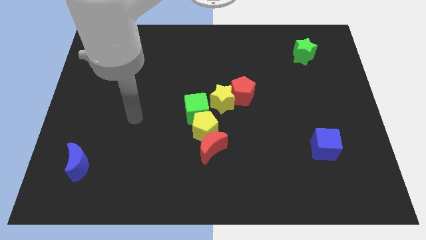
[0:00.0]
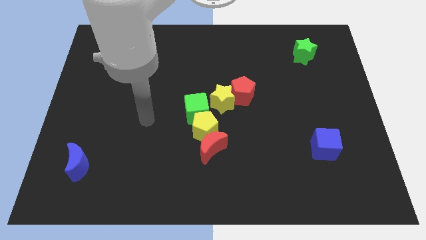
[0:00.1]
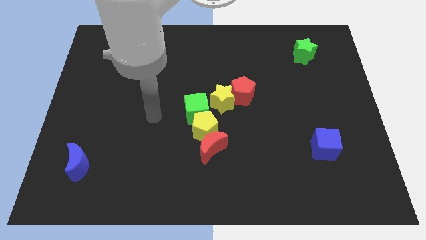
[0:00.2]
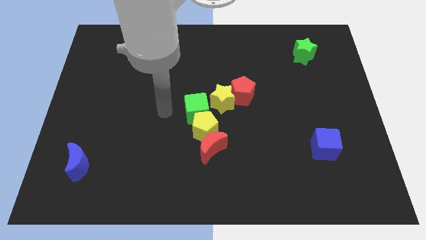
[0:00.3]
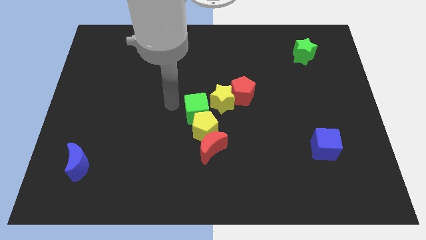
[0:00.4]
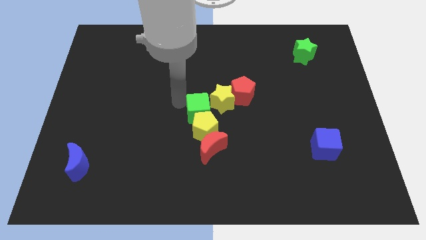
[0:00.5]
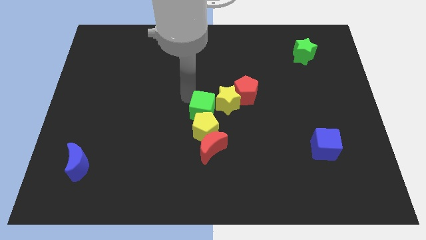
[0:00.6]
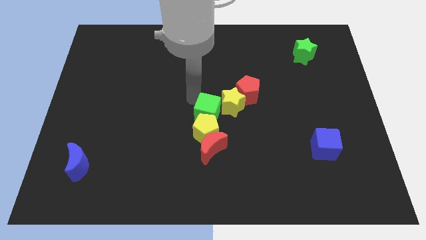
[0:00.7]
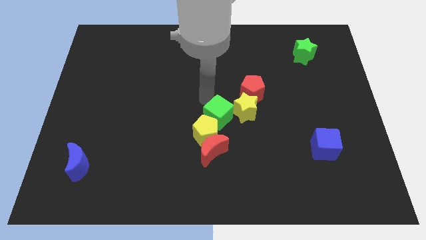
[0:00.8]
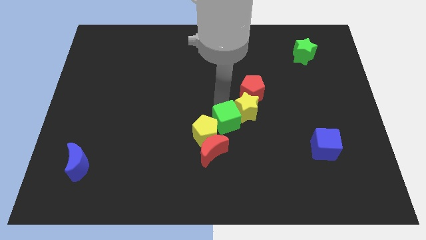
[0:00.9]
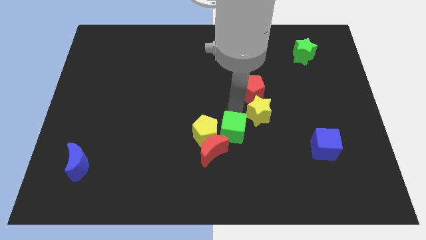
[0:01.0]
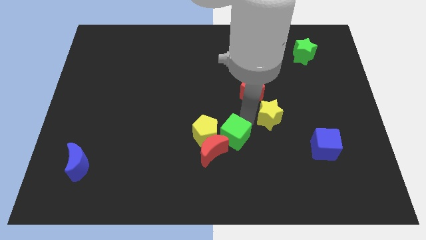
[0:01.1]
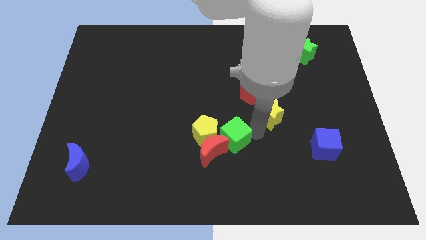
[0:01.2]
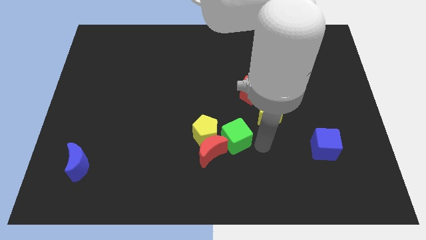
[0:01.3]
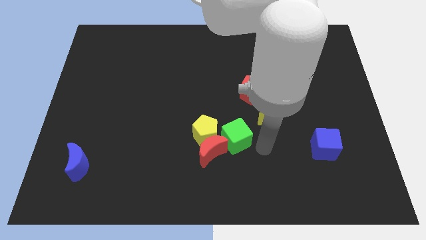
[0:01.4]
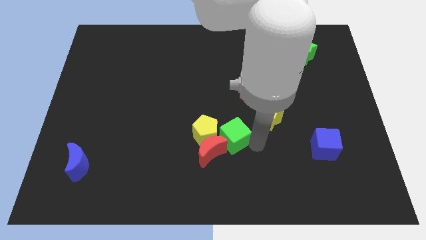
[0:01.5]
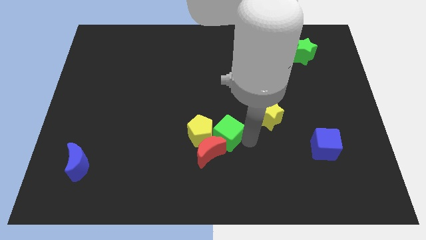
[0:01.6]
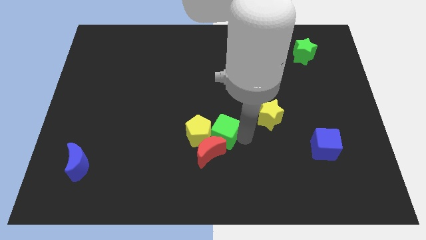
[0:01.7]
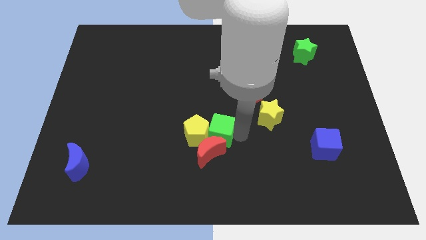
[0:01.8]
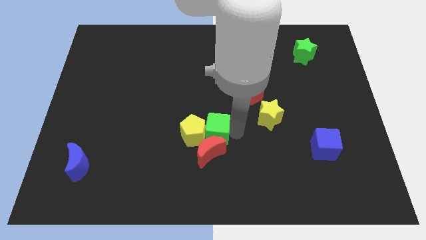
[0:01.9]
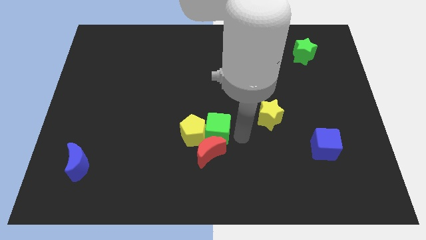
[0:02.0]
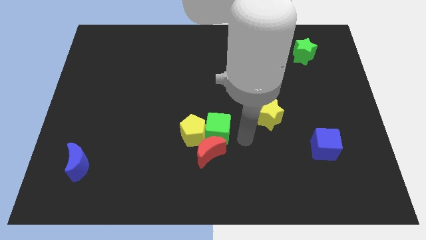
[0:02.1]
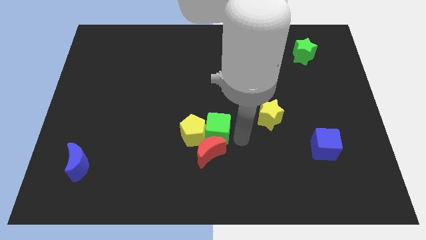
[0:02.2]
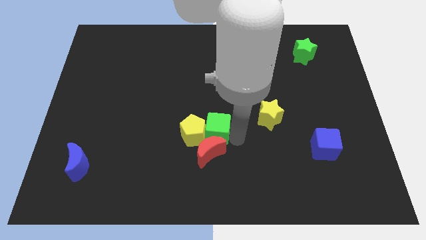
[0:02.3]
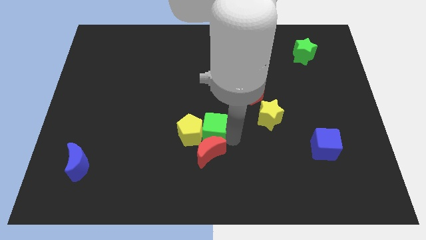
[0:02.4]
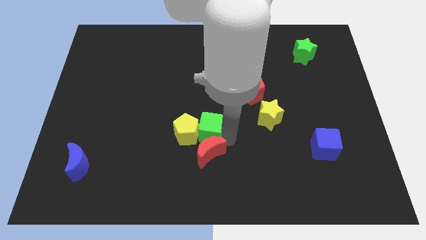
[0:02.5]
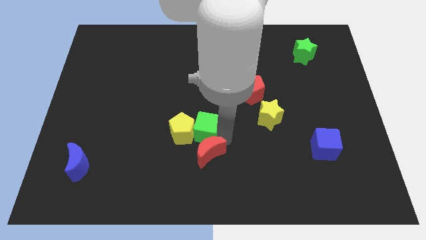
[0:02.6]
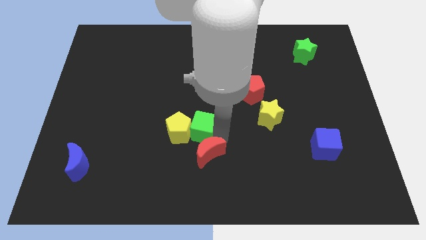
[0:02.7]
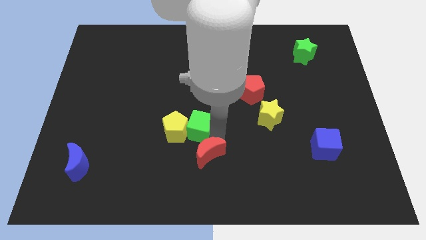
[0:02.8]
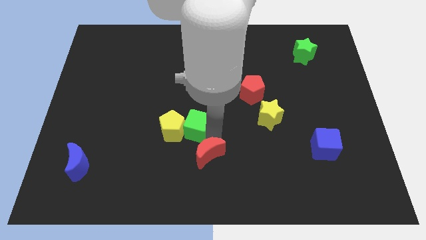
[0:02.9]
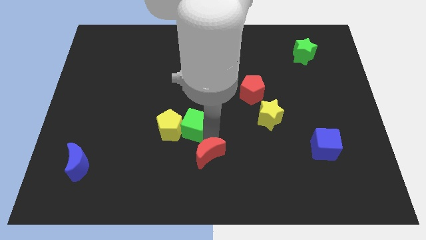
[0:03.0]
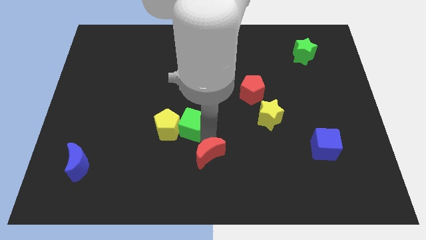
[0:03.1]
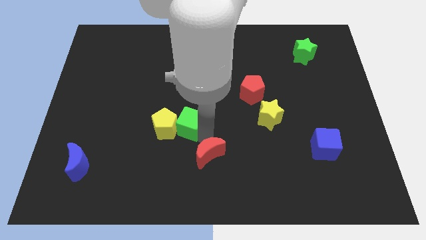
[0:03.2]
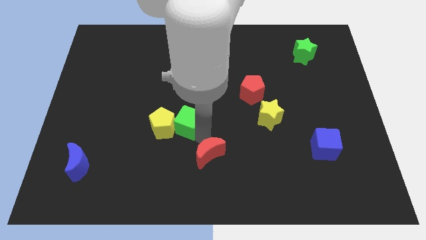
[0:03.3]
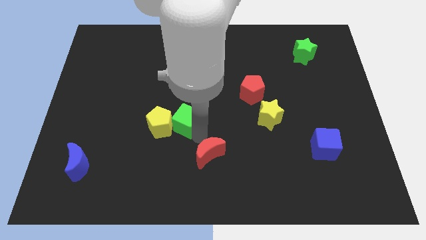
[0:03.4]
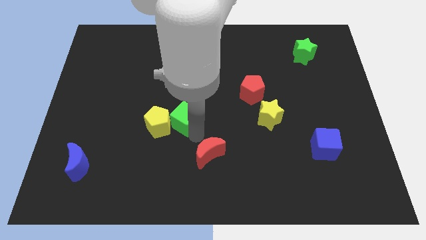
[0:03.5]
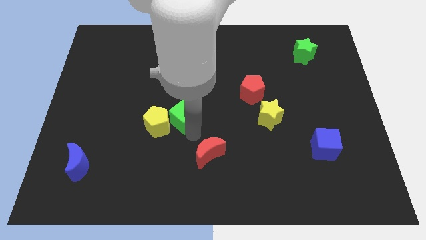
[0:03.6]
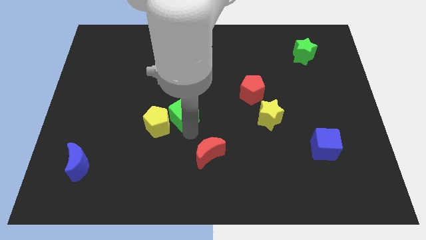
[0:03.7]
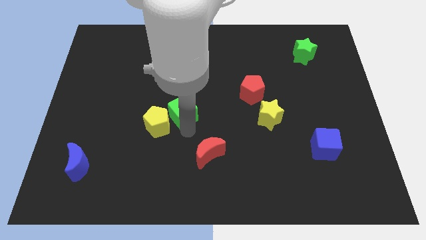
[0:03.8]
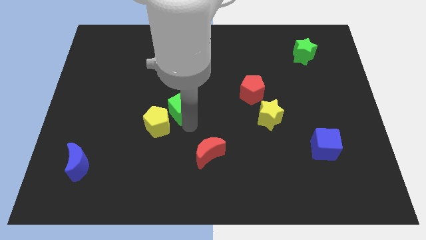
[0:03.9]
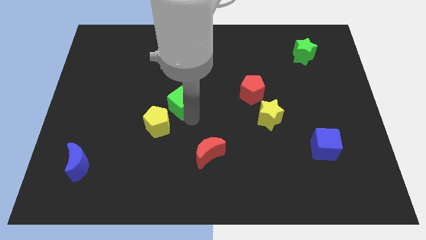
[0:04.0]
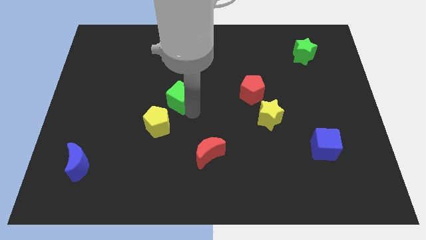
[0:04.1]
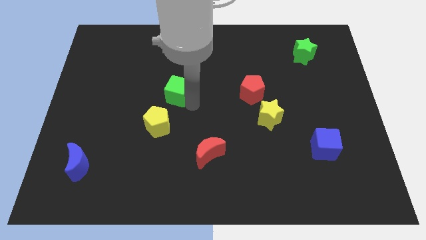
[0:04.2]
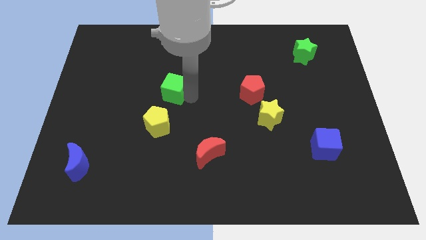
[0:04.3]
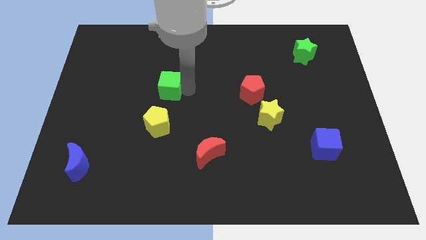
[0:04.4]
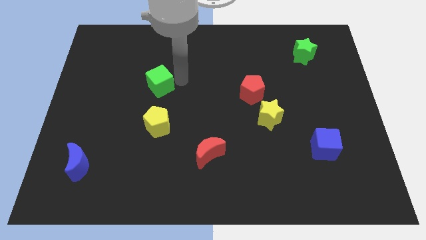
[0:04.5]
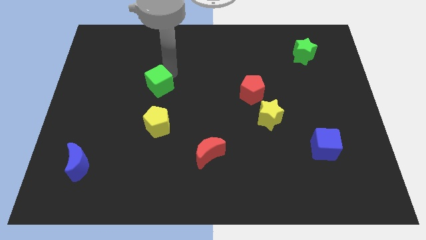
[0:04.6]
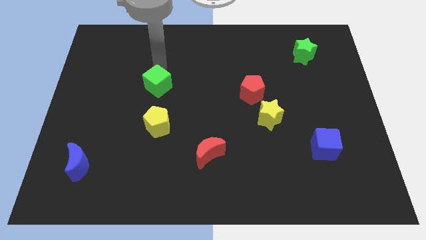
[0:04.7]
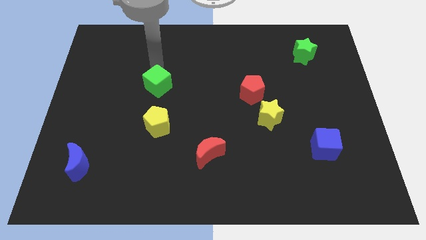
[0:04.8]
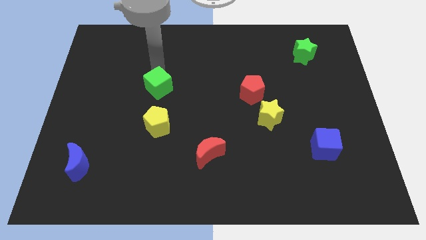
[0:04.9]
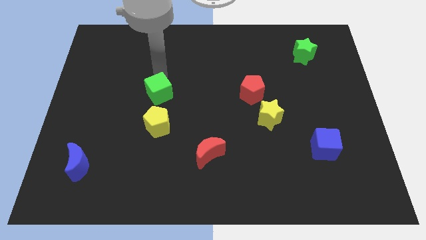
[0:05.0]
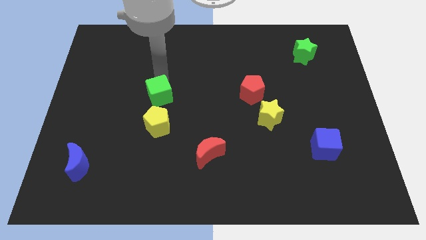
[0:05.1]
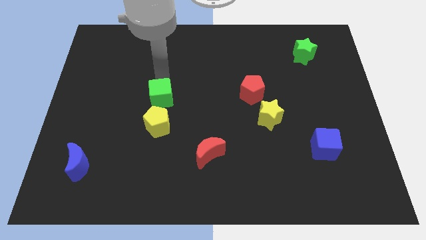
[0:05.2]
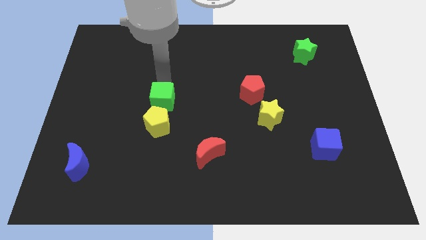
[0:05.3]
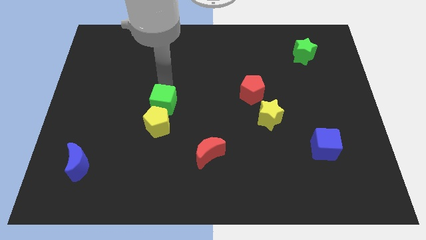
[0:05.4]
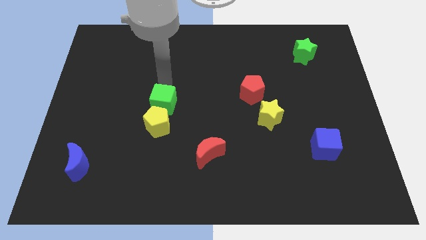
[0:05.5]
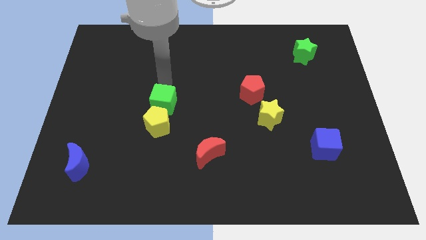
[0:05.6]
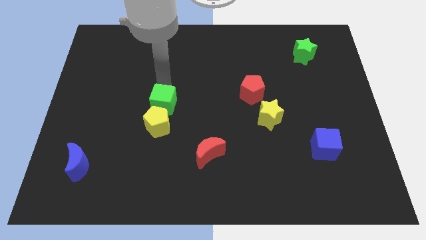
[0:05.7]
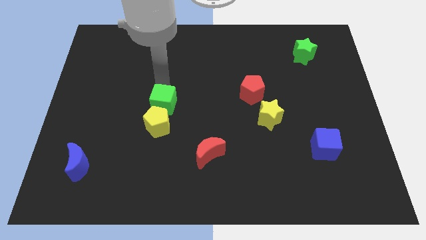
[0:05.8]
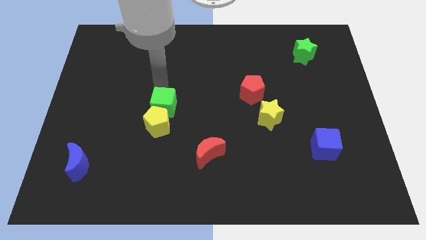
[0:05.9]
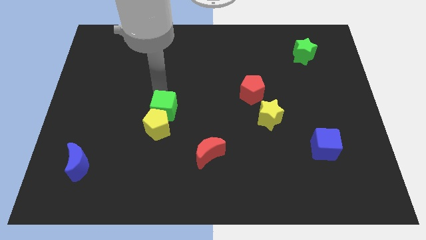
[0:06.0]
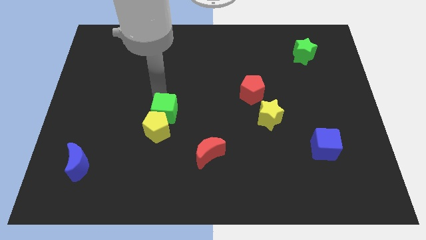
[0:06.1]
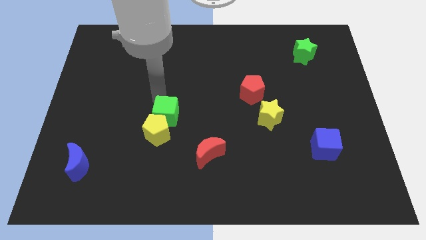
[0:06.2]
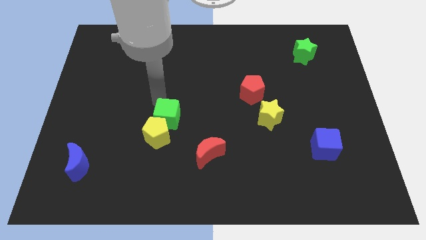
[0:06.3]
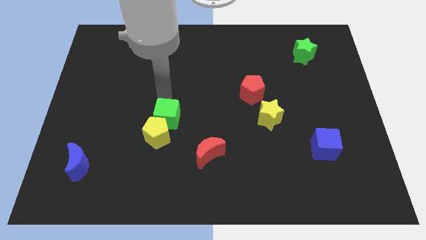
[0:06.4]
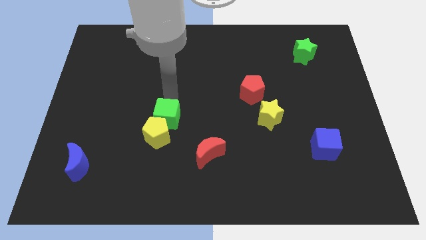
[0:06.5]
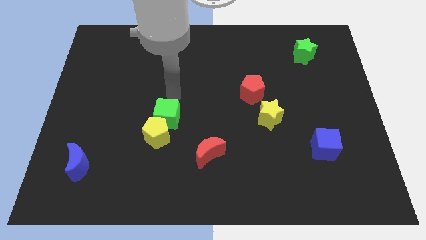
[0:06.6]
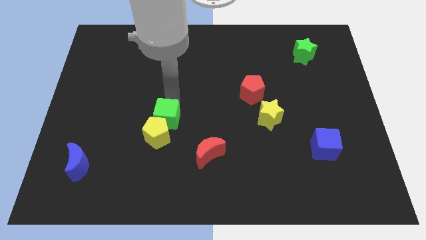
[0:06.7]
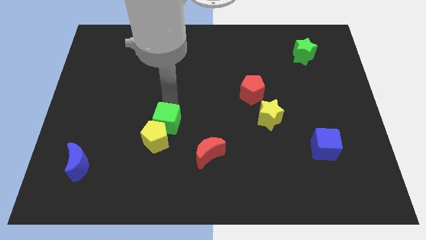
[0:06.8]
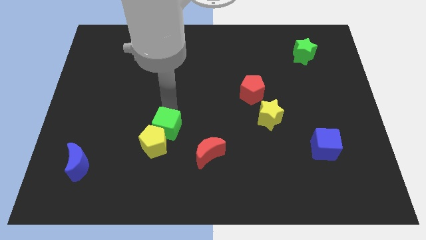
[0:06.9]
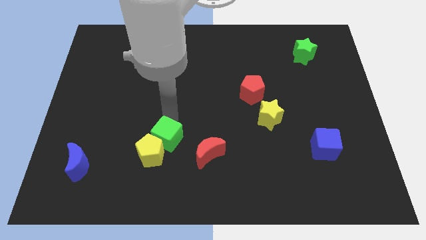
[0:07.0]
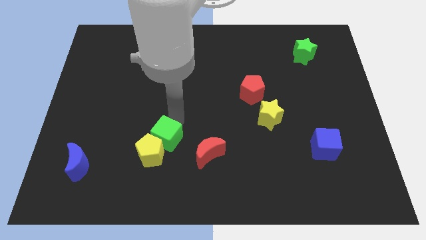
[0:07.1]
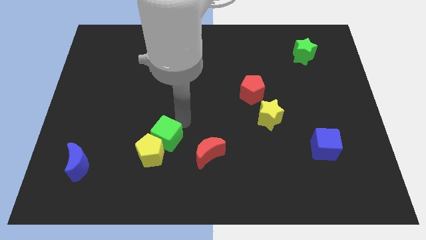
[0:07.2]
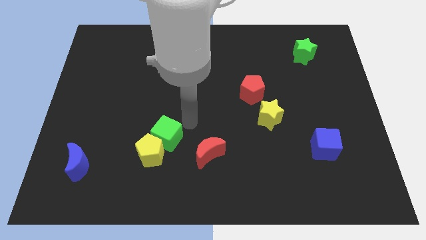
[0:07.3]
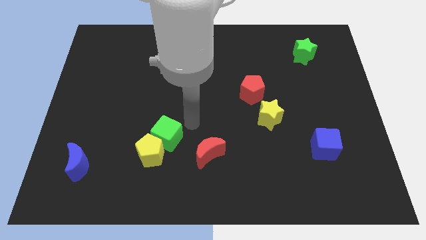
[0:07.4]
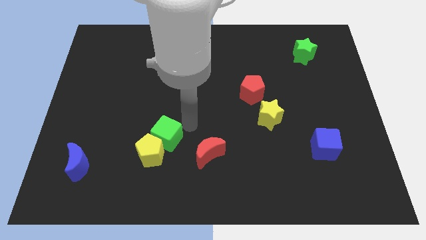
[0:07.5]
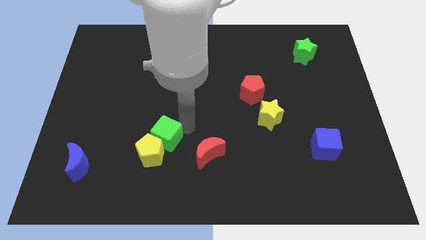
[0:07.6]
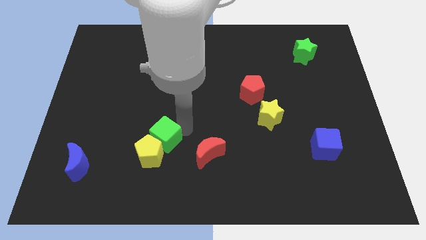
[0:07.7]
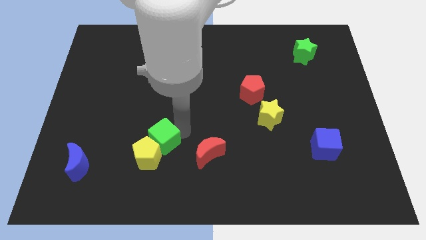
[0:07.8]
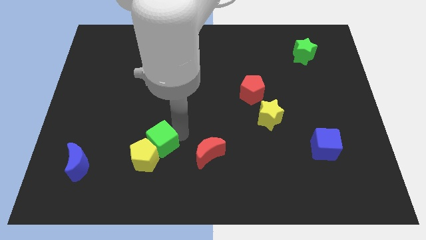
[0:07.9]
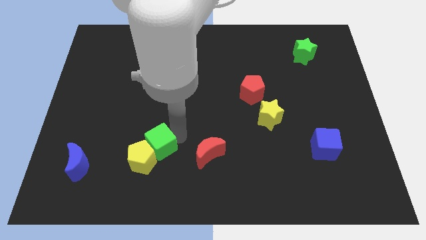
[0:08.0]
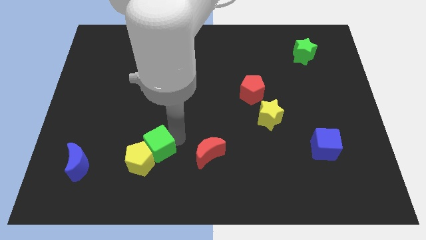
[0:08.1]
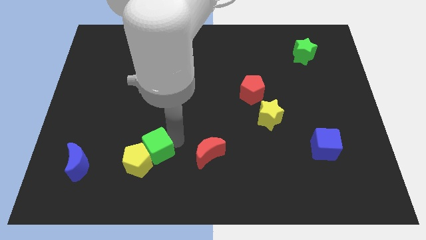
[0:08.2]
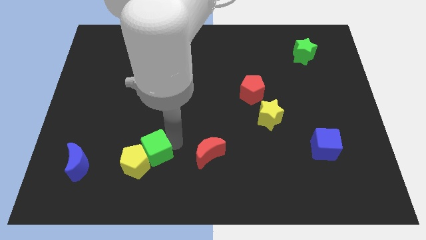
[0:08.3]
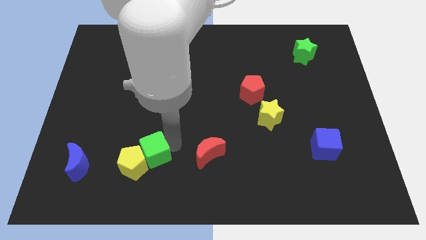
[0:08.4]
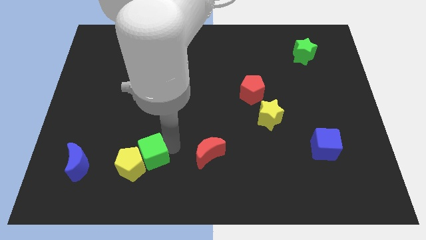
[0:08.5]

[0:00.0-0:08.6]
move the green cube right of the blue moon
